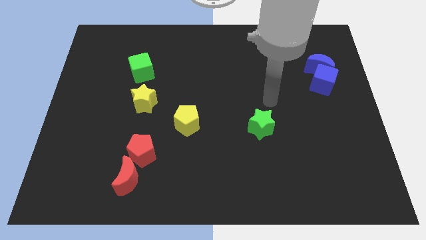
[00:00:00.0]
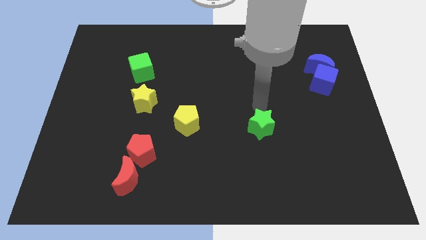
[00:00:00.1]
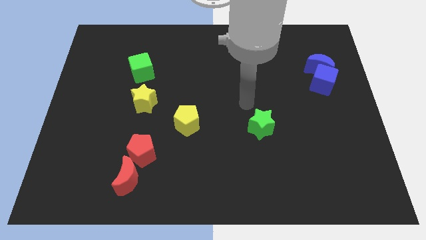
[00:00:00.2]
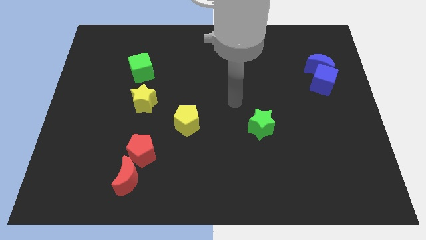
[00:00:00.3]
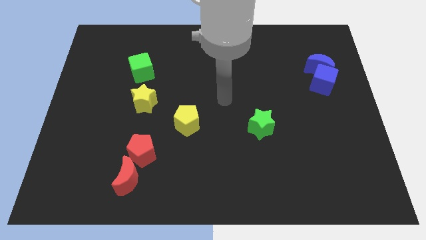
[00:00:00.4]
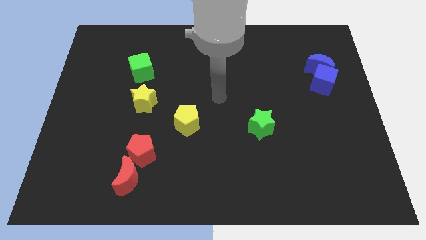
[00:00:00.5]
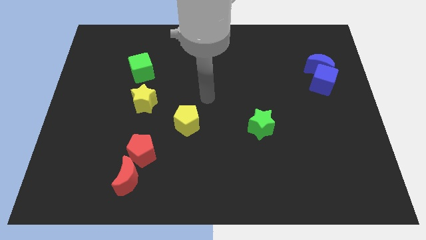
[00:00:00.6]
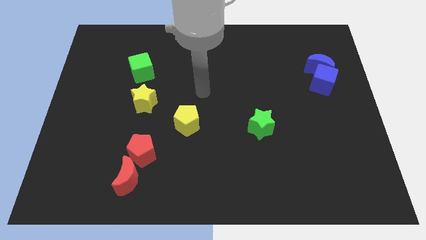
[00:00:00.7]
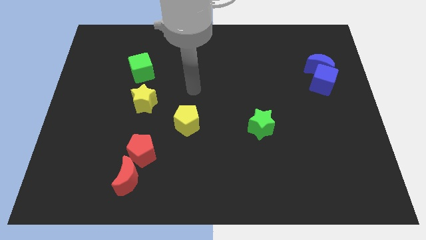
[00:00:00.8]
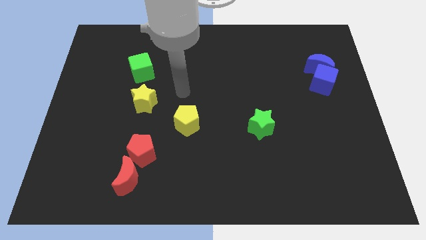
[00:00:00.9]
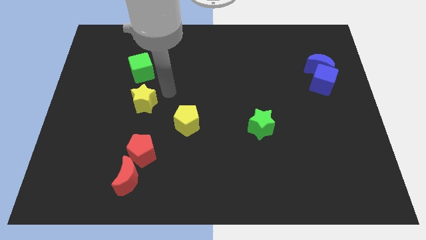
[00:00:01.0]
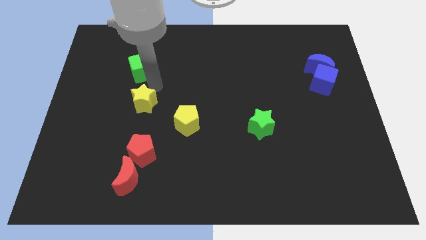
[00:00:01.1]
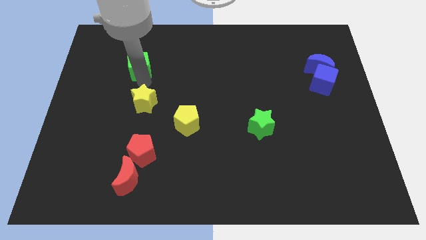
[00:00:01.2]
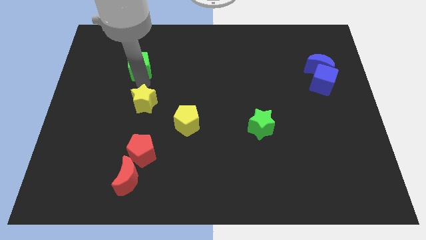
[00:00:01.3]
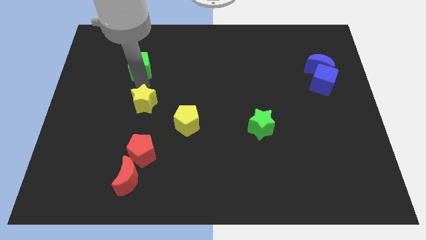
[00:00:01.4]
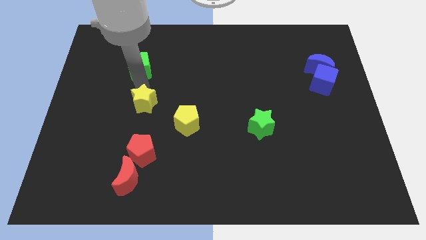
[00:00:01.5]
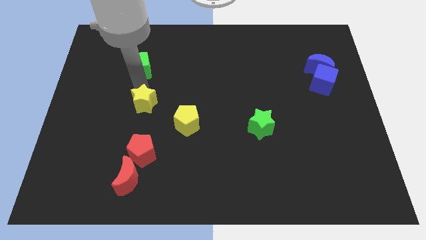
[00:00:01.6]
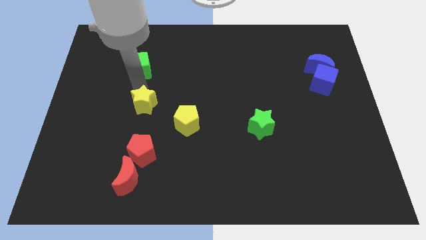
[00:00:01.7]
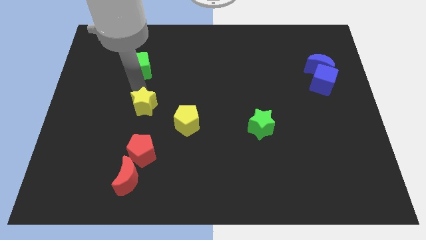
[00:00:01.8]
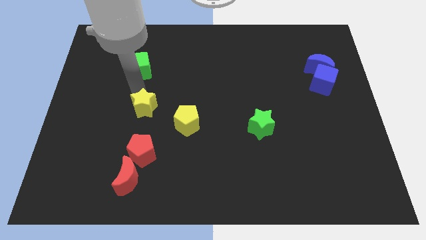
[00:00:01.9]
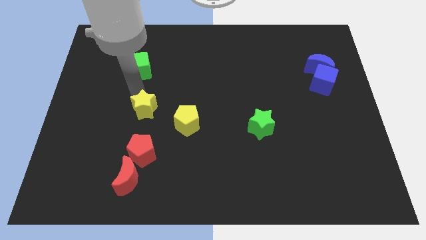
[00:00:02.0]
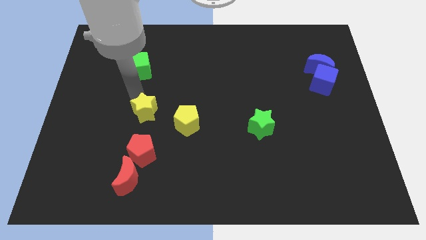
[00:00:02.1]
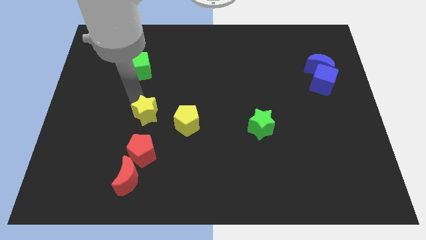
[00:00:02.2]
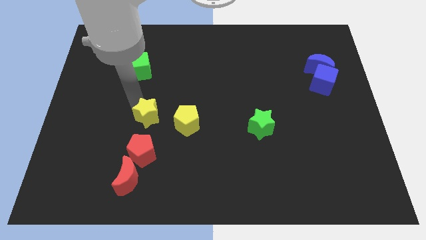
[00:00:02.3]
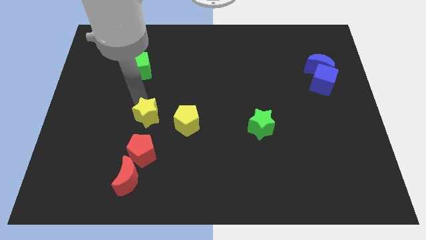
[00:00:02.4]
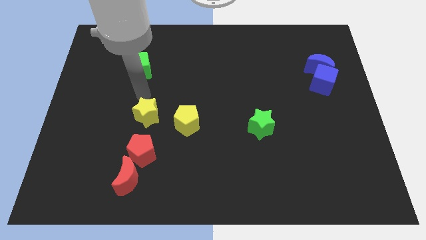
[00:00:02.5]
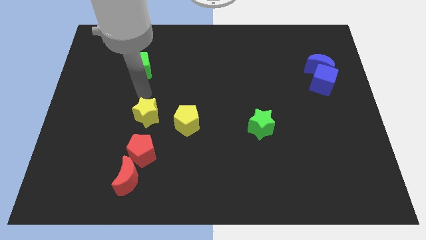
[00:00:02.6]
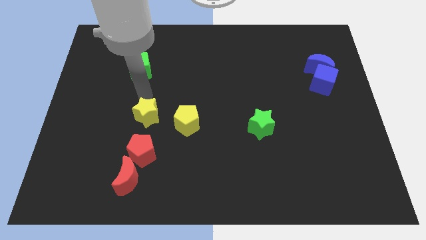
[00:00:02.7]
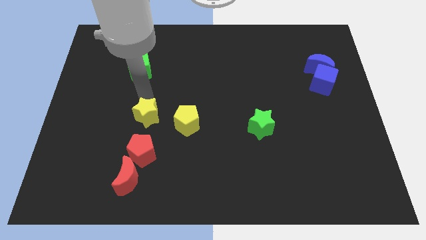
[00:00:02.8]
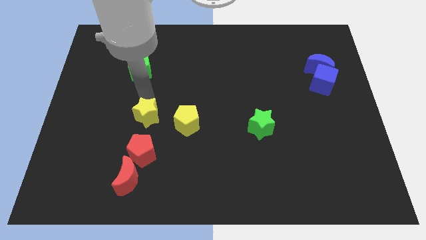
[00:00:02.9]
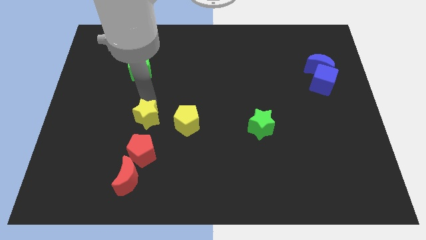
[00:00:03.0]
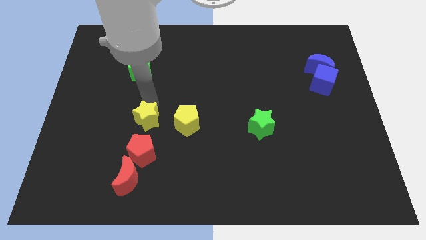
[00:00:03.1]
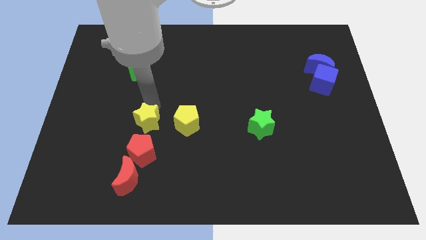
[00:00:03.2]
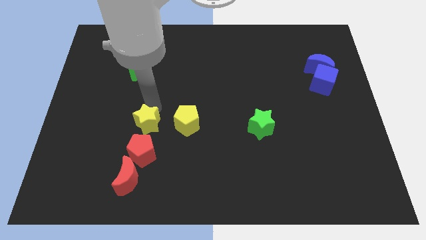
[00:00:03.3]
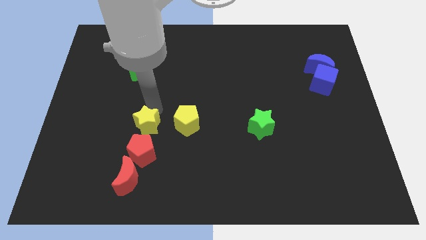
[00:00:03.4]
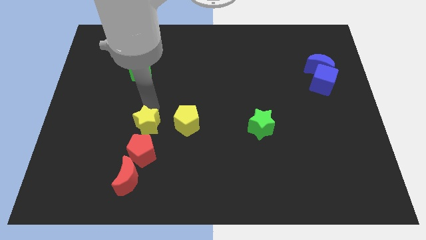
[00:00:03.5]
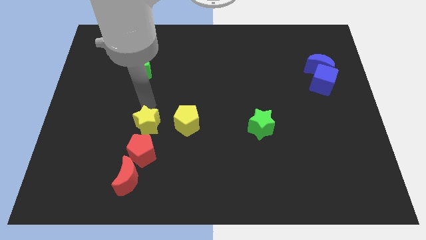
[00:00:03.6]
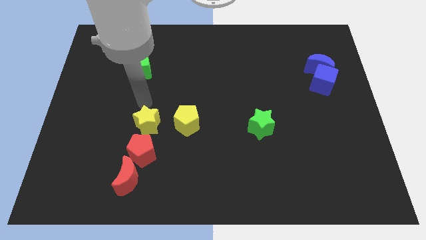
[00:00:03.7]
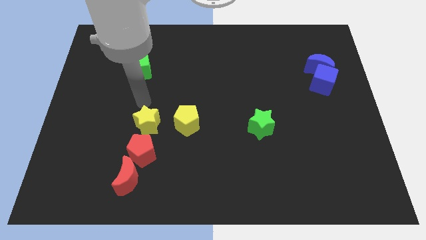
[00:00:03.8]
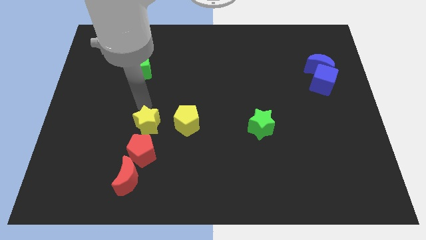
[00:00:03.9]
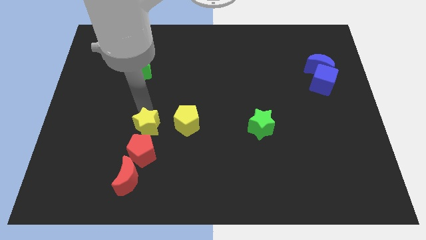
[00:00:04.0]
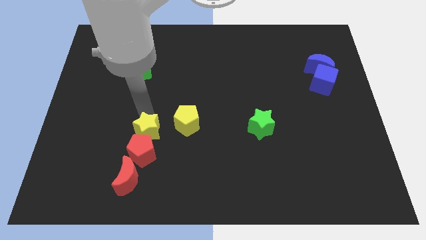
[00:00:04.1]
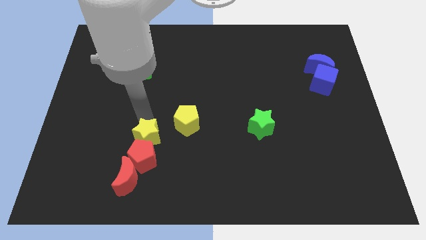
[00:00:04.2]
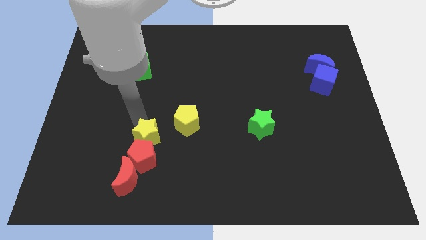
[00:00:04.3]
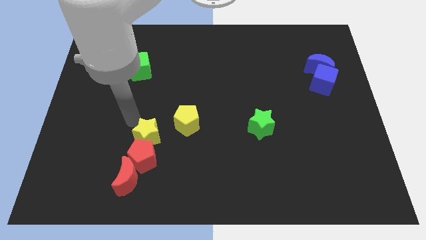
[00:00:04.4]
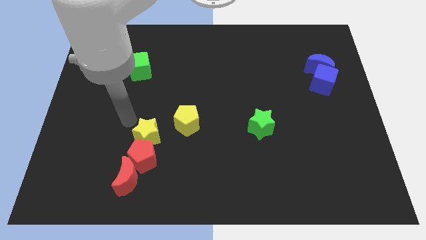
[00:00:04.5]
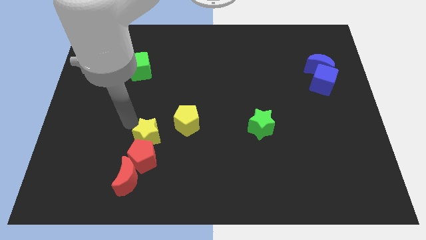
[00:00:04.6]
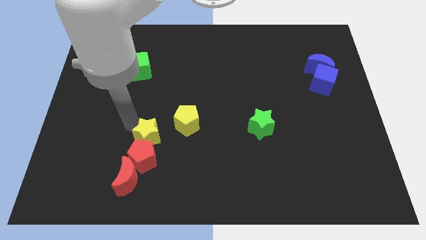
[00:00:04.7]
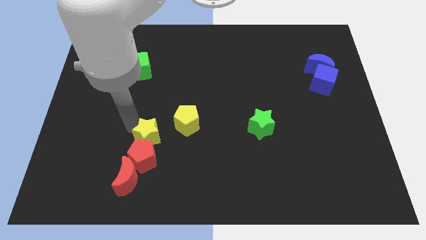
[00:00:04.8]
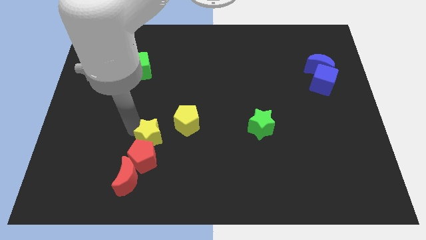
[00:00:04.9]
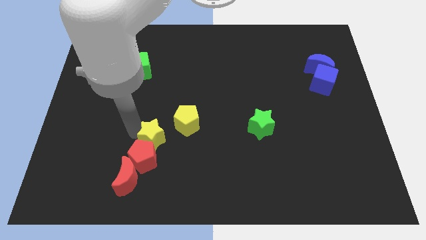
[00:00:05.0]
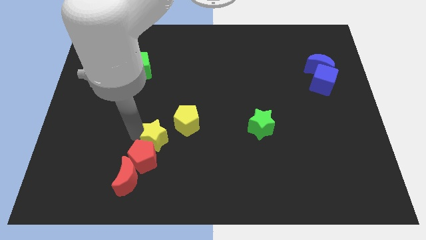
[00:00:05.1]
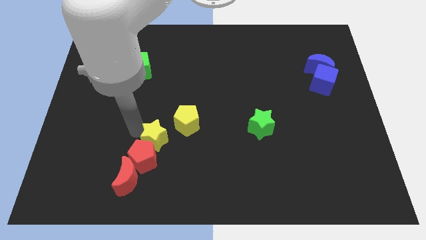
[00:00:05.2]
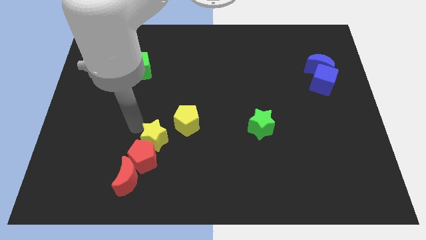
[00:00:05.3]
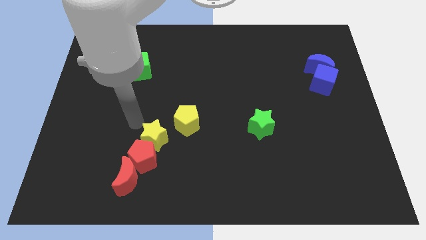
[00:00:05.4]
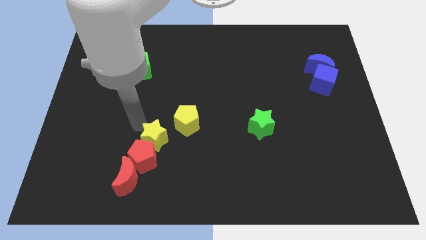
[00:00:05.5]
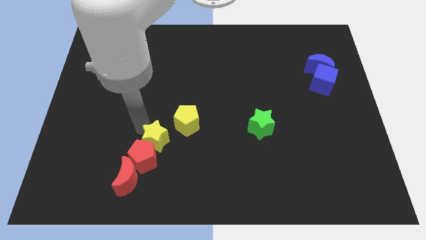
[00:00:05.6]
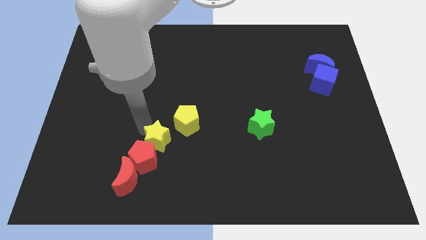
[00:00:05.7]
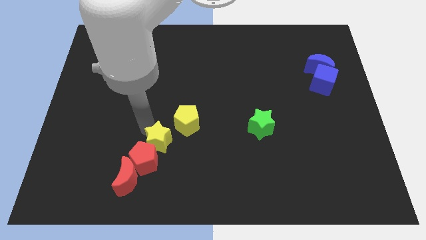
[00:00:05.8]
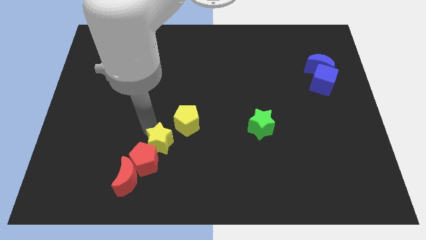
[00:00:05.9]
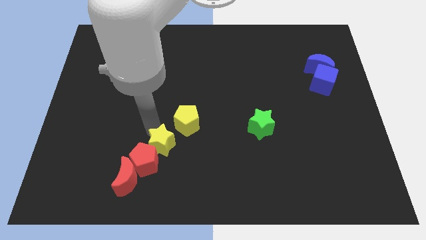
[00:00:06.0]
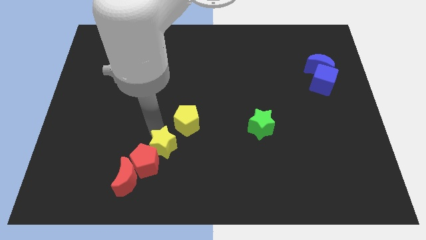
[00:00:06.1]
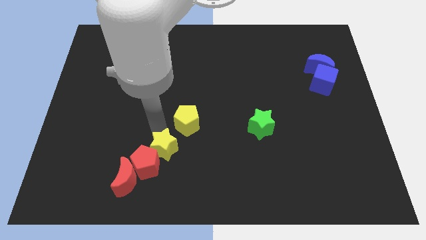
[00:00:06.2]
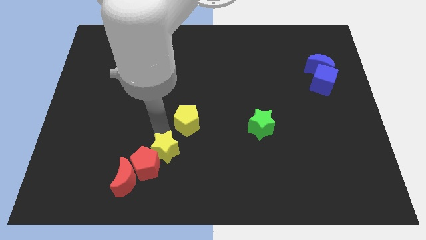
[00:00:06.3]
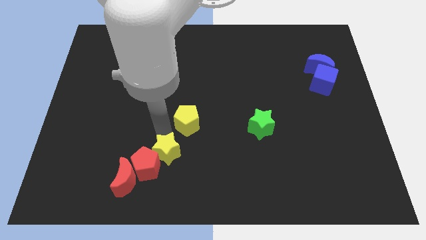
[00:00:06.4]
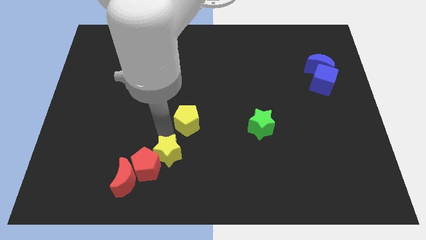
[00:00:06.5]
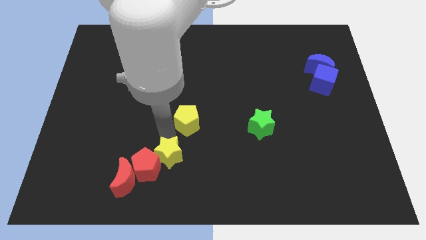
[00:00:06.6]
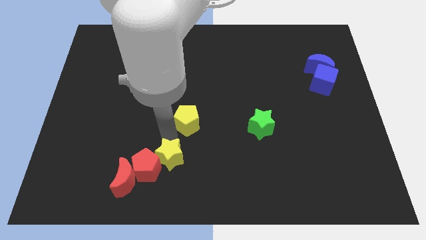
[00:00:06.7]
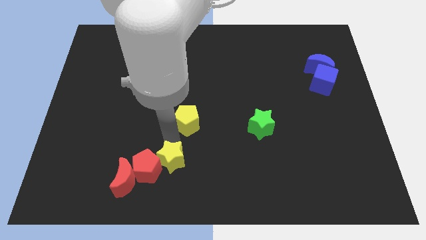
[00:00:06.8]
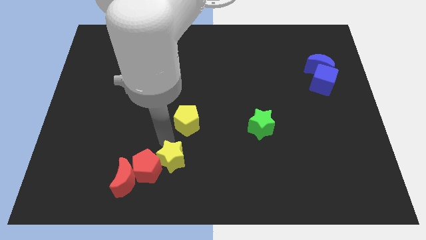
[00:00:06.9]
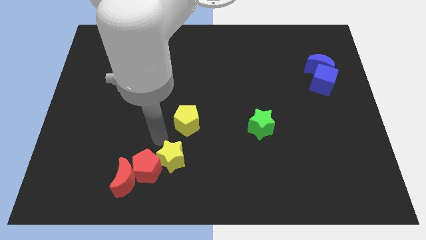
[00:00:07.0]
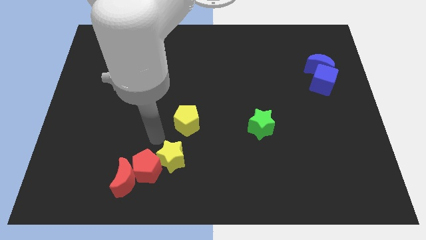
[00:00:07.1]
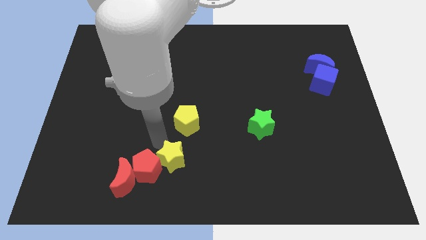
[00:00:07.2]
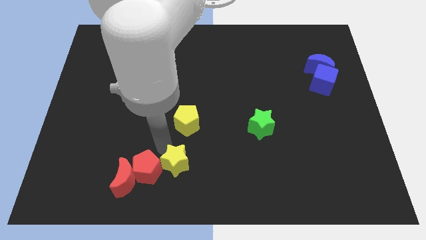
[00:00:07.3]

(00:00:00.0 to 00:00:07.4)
push the yellow star to the bottom
